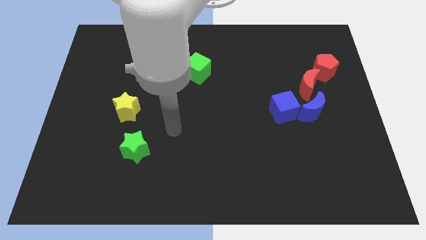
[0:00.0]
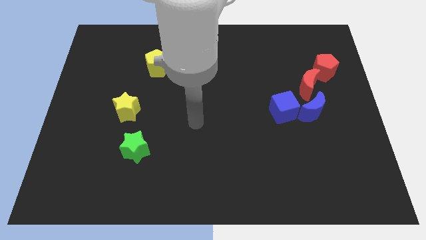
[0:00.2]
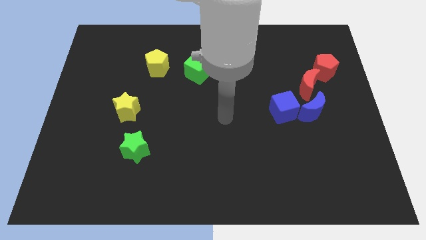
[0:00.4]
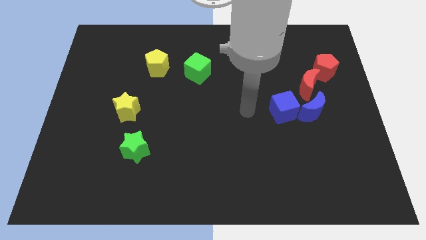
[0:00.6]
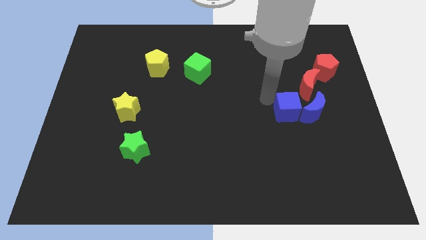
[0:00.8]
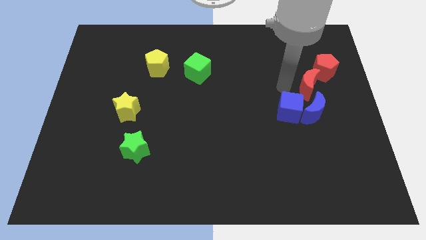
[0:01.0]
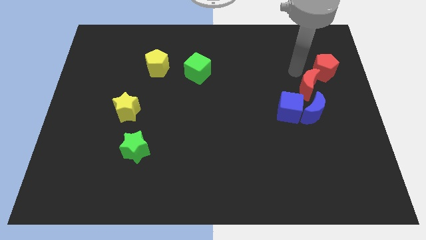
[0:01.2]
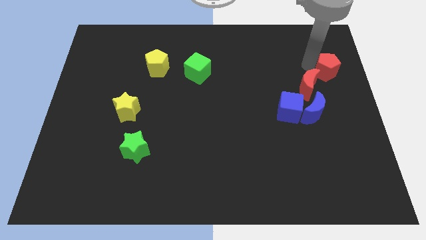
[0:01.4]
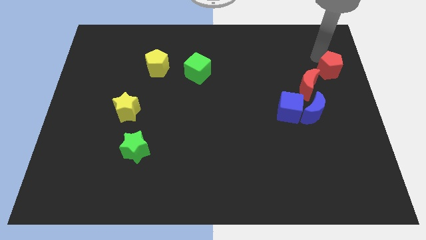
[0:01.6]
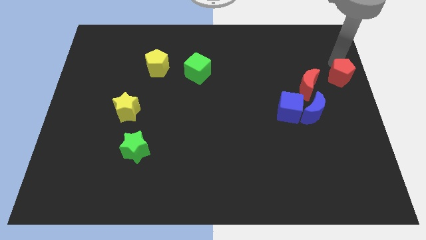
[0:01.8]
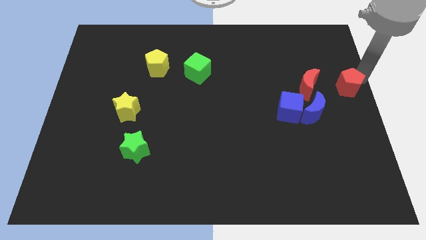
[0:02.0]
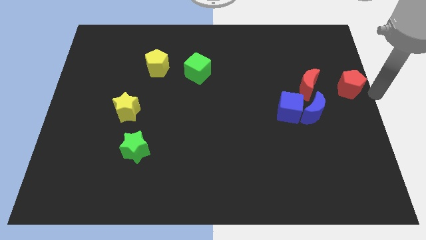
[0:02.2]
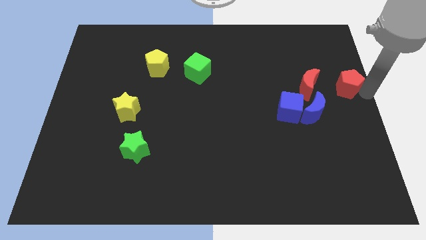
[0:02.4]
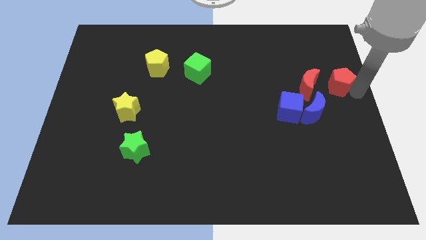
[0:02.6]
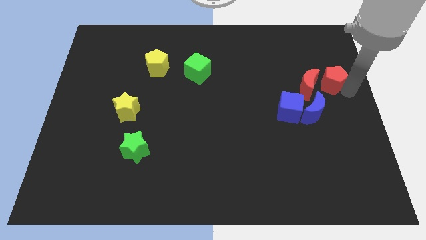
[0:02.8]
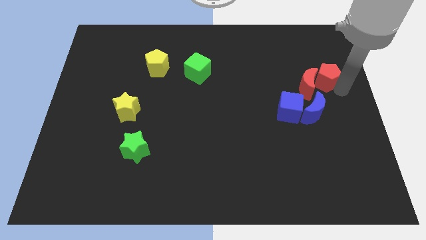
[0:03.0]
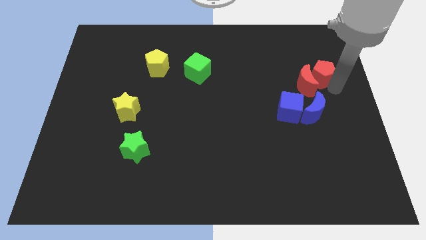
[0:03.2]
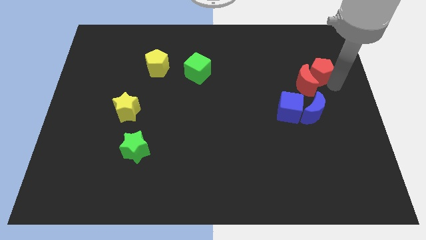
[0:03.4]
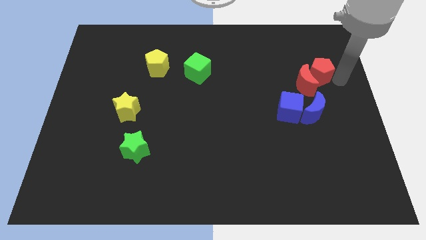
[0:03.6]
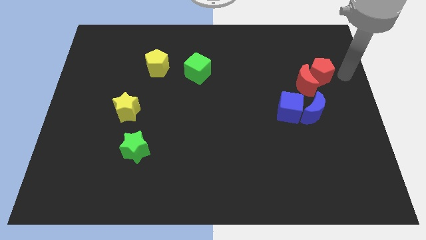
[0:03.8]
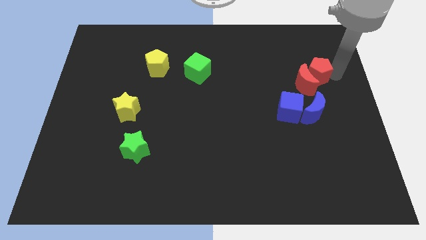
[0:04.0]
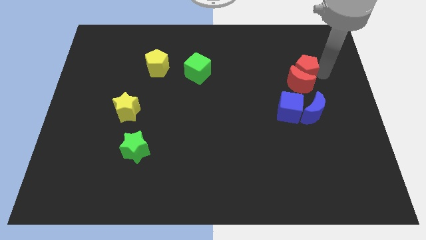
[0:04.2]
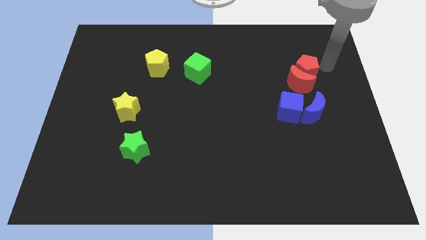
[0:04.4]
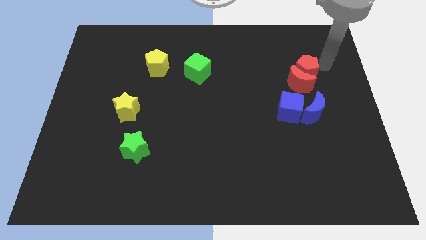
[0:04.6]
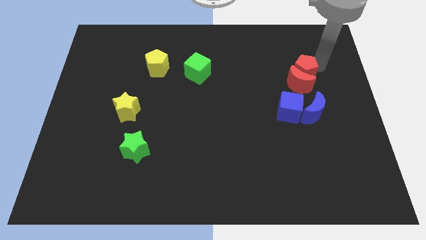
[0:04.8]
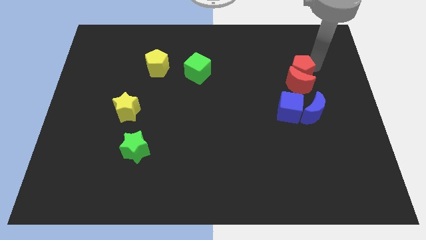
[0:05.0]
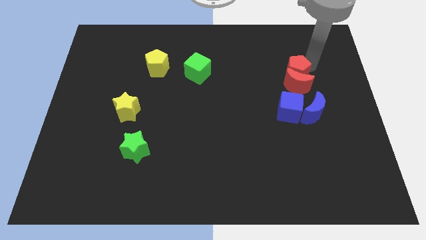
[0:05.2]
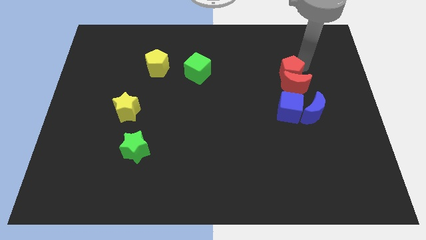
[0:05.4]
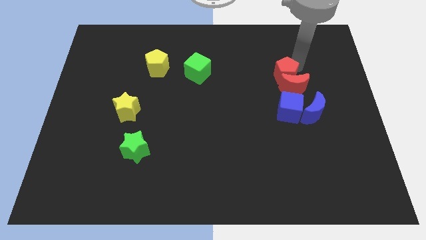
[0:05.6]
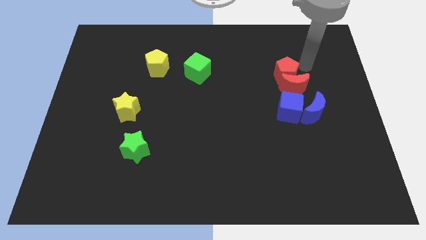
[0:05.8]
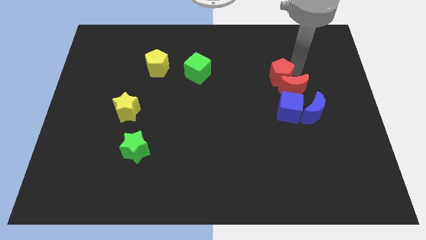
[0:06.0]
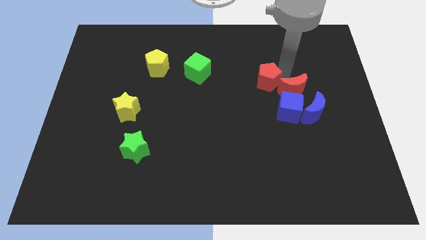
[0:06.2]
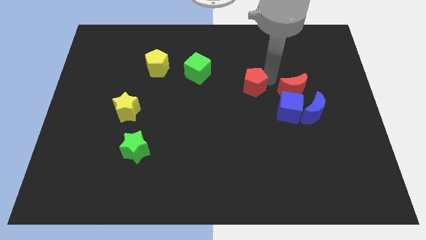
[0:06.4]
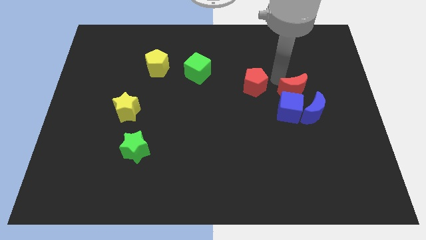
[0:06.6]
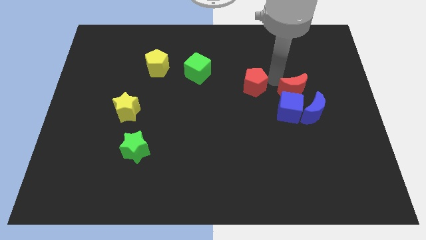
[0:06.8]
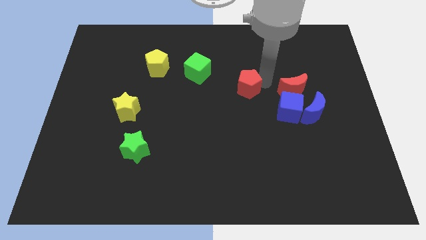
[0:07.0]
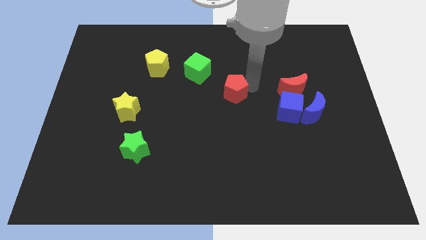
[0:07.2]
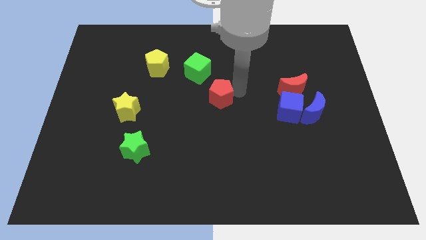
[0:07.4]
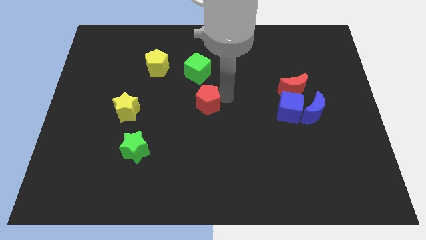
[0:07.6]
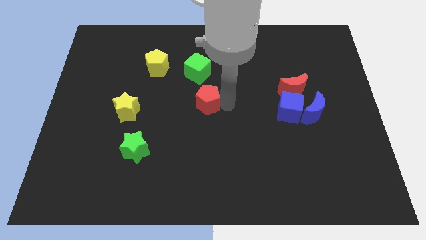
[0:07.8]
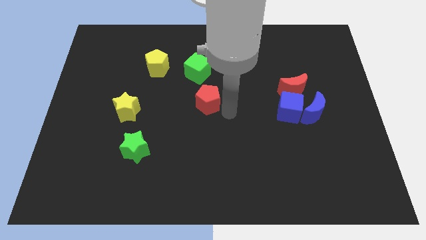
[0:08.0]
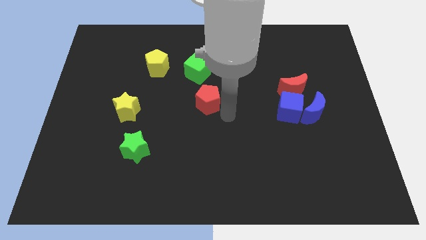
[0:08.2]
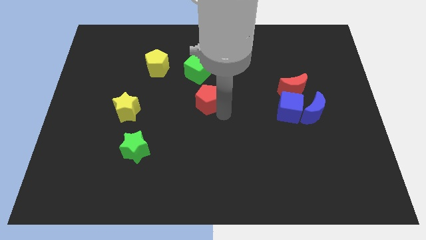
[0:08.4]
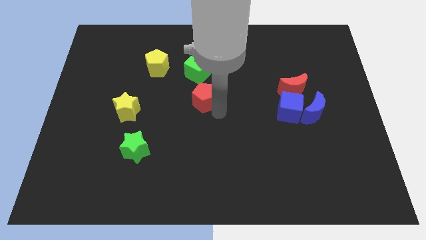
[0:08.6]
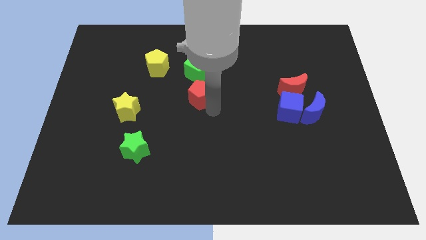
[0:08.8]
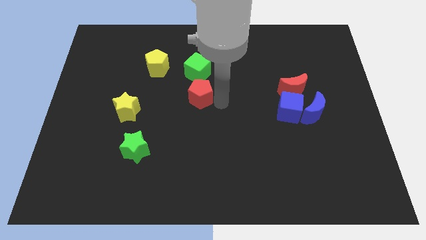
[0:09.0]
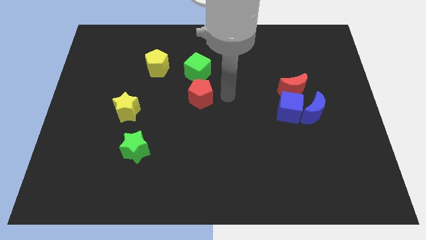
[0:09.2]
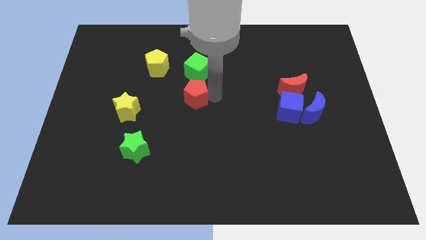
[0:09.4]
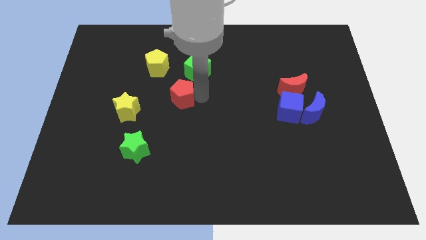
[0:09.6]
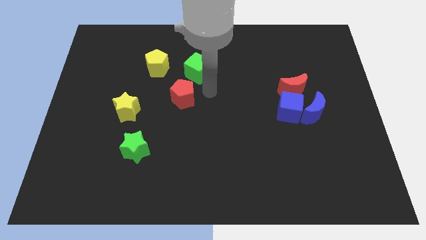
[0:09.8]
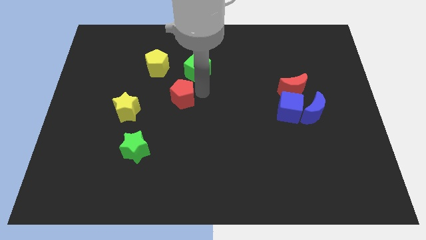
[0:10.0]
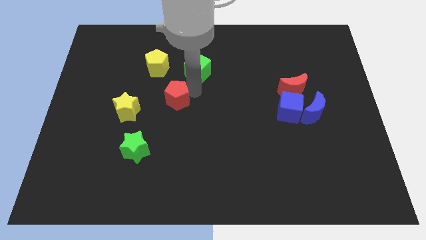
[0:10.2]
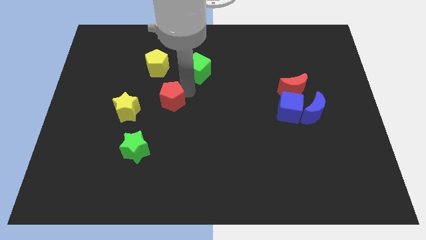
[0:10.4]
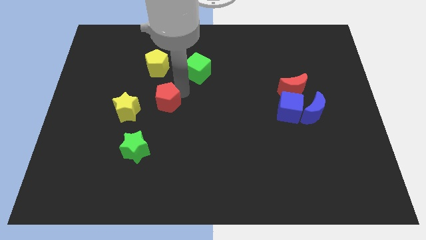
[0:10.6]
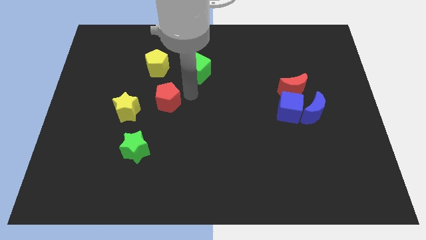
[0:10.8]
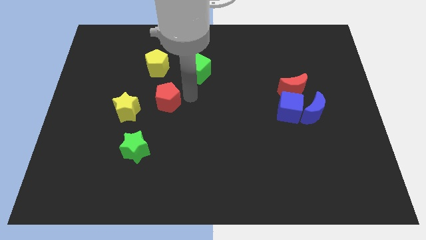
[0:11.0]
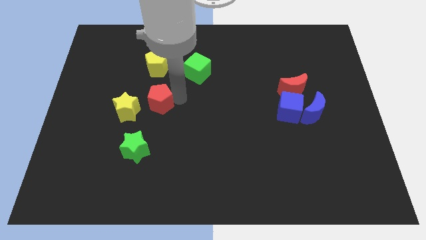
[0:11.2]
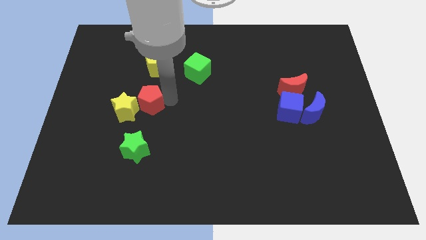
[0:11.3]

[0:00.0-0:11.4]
slide the red pentagon close to the yellow star

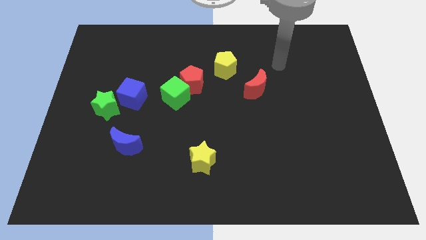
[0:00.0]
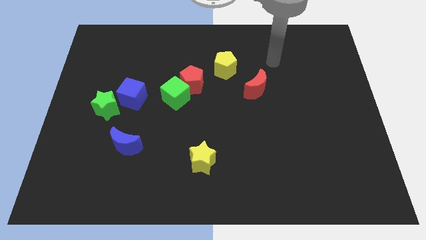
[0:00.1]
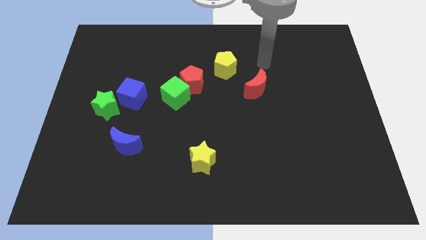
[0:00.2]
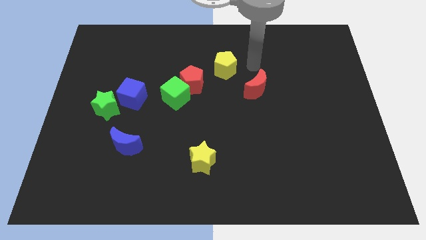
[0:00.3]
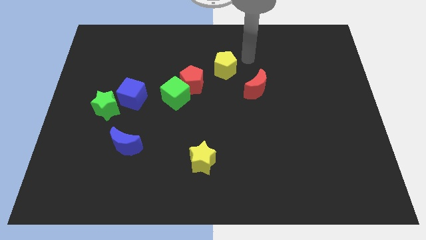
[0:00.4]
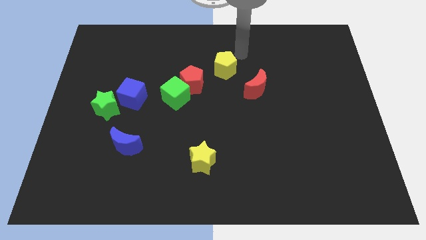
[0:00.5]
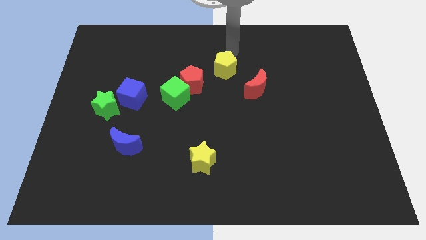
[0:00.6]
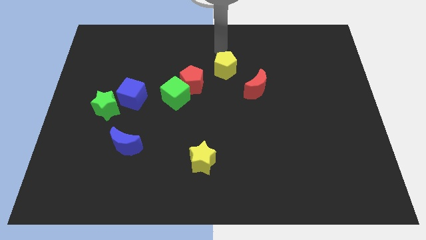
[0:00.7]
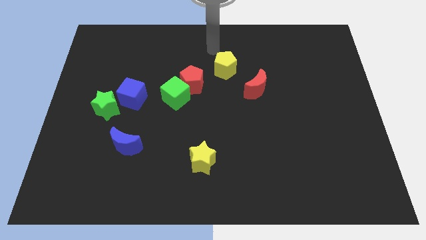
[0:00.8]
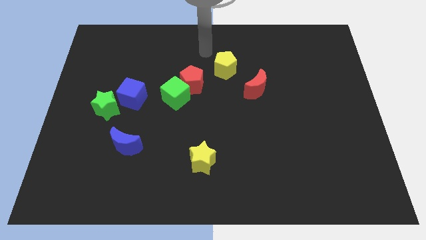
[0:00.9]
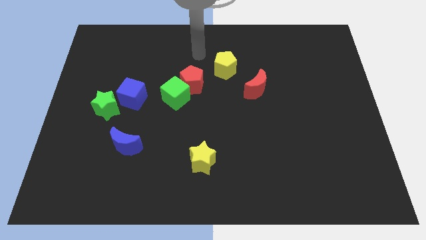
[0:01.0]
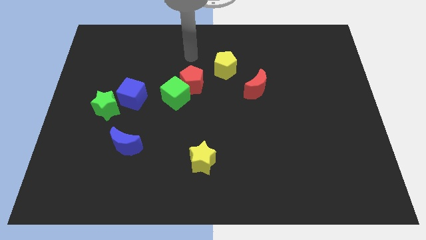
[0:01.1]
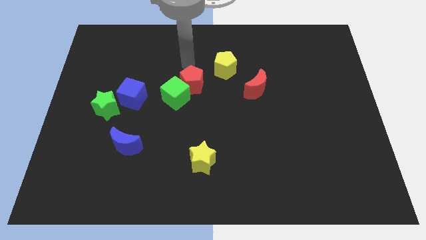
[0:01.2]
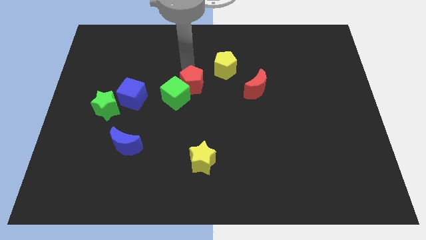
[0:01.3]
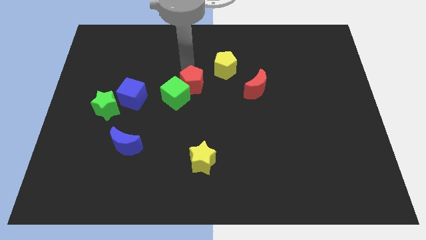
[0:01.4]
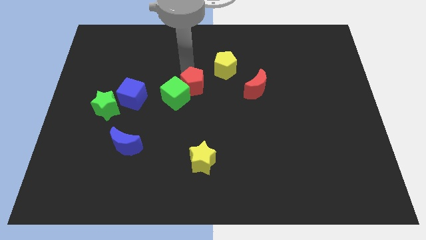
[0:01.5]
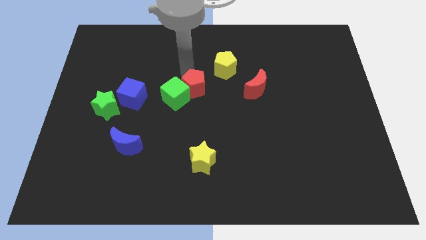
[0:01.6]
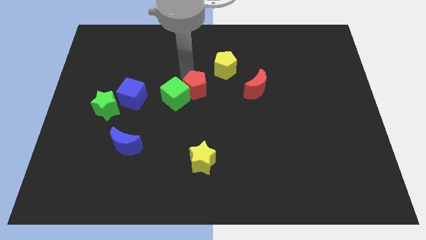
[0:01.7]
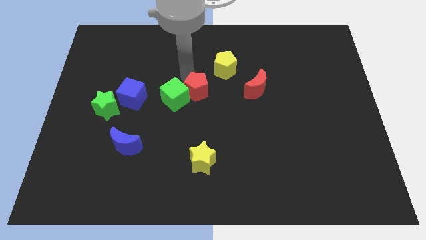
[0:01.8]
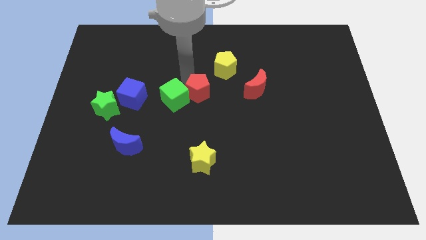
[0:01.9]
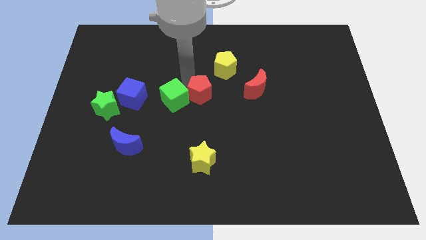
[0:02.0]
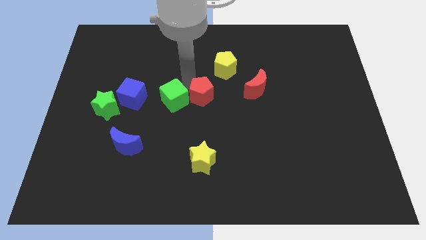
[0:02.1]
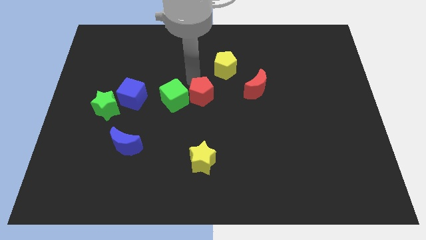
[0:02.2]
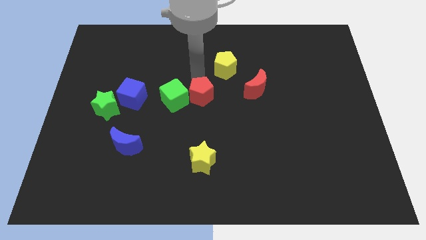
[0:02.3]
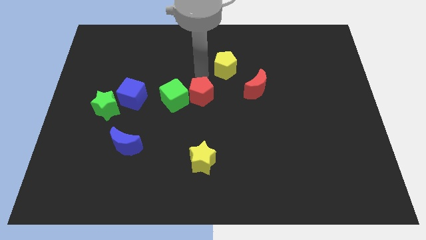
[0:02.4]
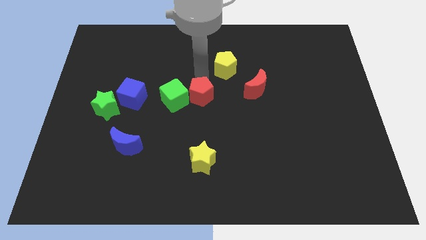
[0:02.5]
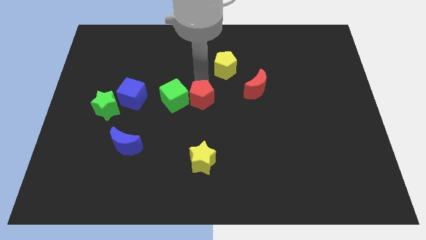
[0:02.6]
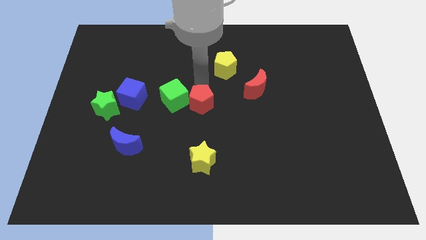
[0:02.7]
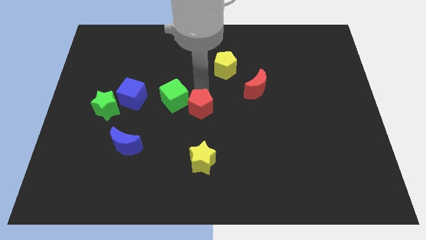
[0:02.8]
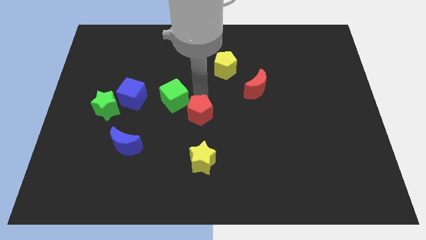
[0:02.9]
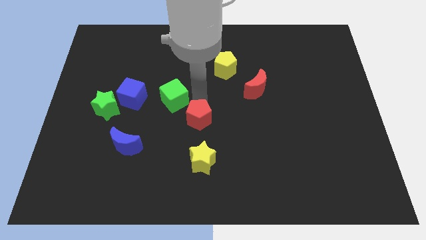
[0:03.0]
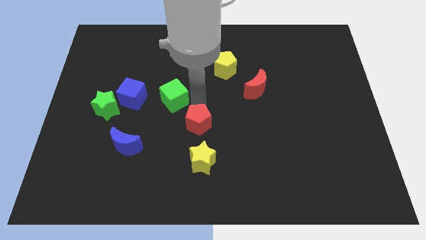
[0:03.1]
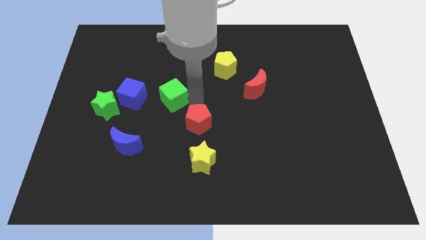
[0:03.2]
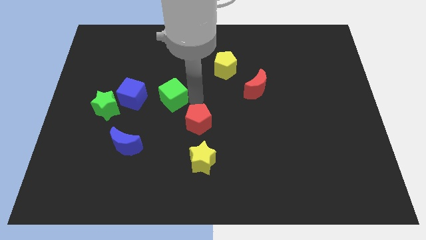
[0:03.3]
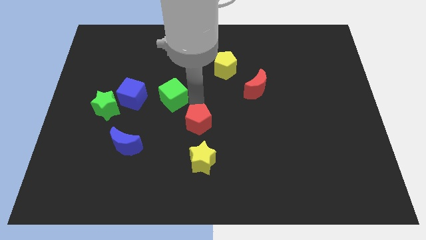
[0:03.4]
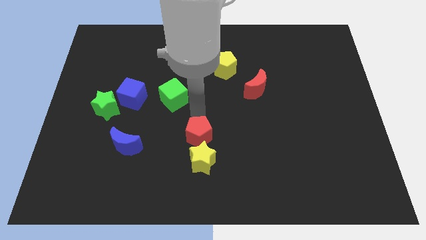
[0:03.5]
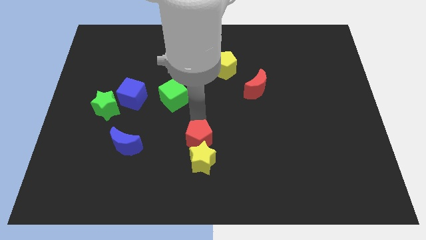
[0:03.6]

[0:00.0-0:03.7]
push the red pentagon to the yellow star
